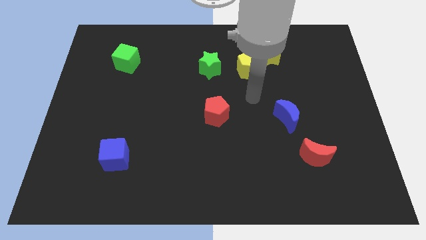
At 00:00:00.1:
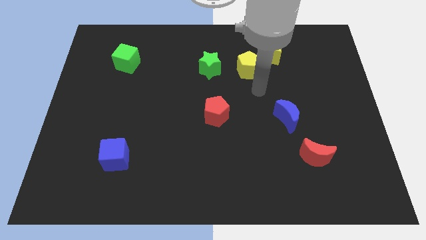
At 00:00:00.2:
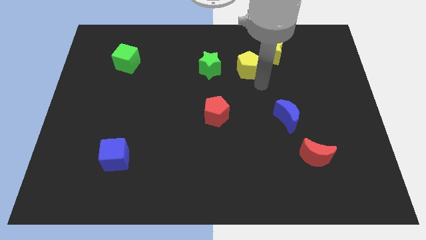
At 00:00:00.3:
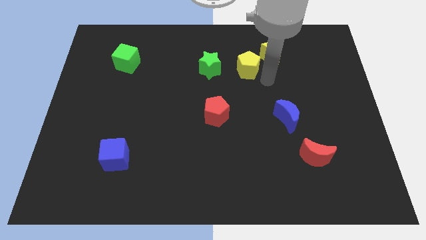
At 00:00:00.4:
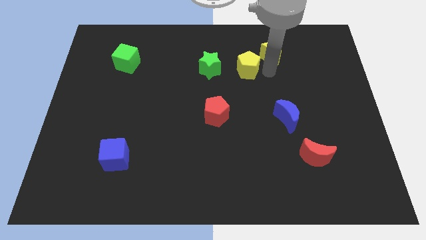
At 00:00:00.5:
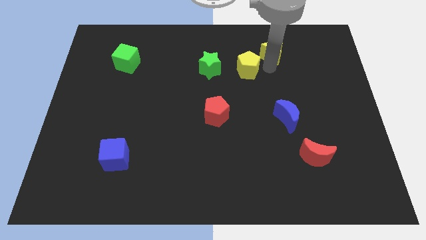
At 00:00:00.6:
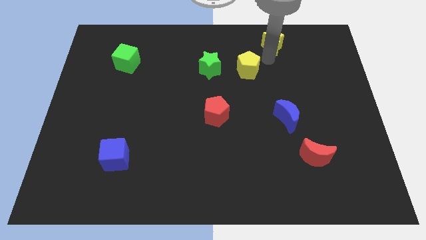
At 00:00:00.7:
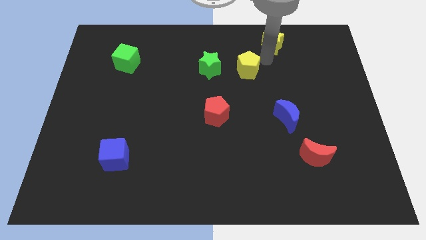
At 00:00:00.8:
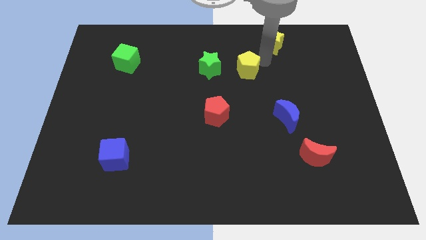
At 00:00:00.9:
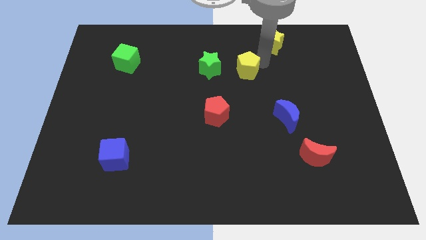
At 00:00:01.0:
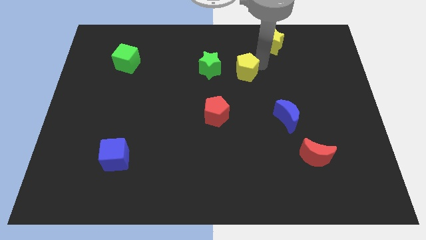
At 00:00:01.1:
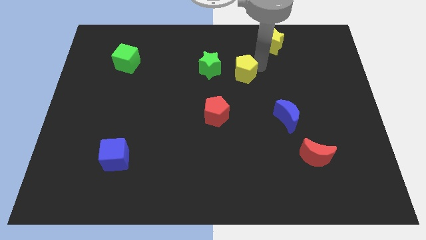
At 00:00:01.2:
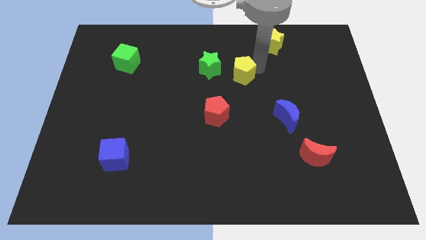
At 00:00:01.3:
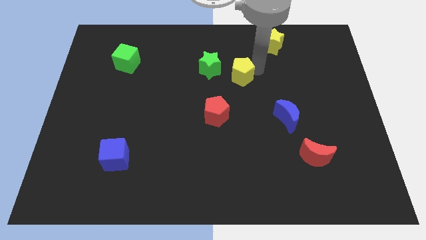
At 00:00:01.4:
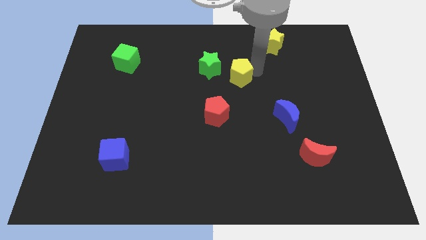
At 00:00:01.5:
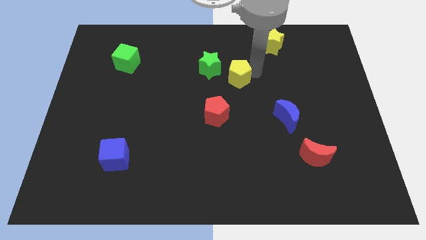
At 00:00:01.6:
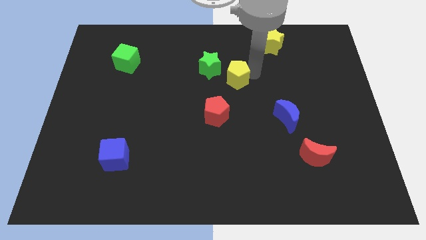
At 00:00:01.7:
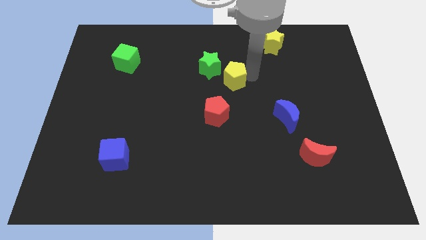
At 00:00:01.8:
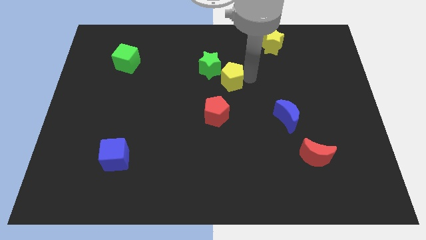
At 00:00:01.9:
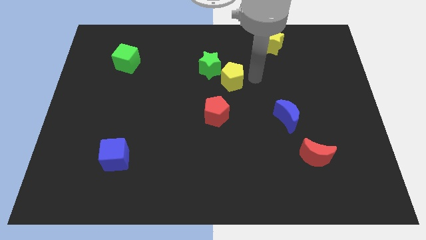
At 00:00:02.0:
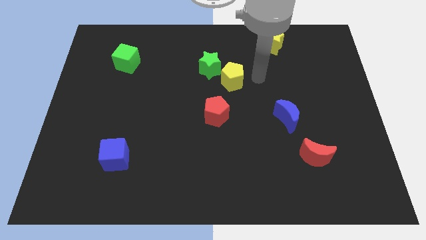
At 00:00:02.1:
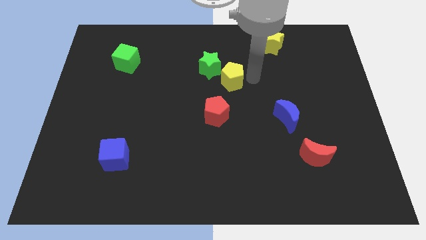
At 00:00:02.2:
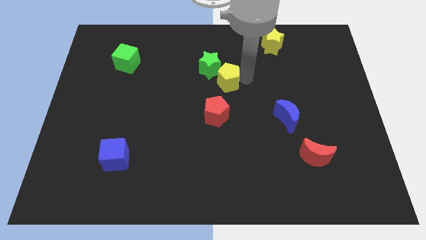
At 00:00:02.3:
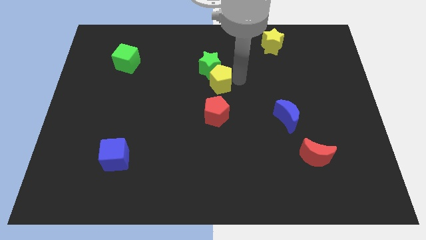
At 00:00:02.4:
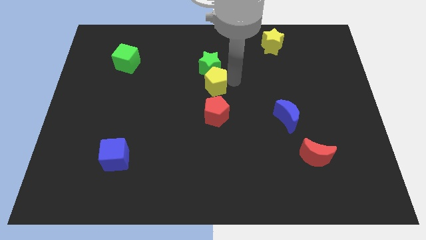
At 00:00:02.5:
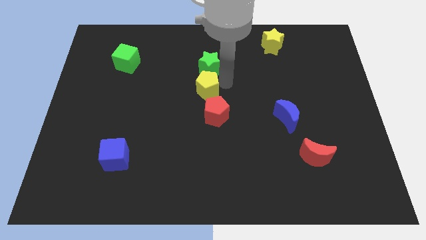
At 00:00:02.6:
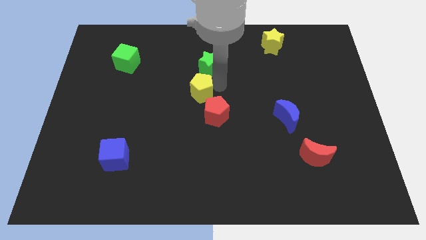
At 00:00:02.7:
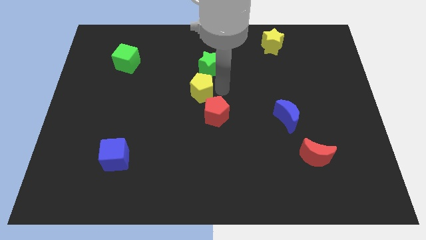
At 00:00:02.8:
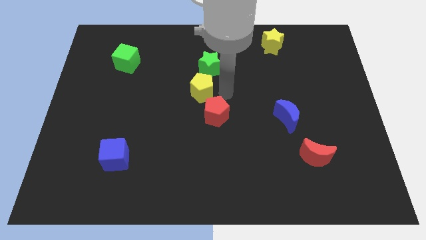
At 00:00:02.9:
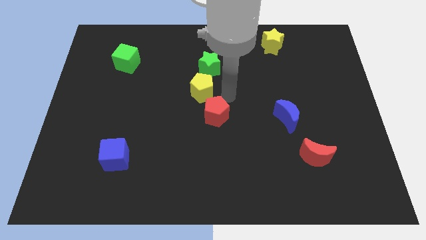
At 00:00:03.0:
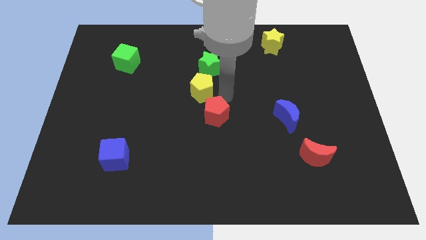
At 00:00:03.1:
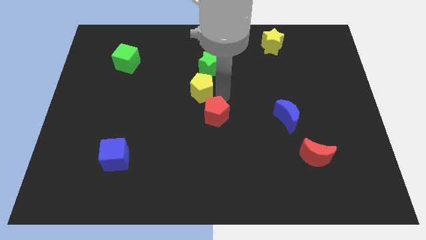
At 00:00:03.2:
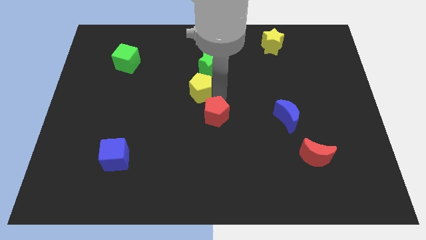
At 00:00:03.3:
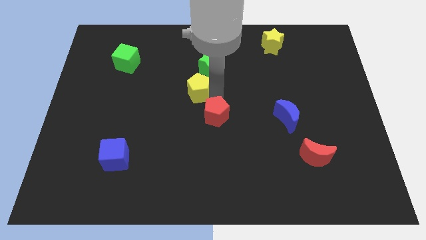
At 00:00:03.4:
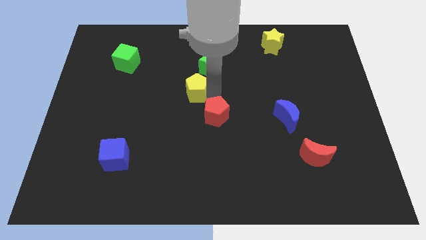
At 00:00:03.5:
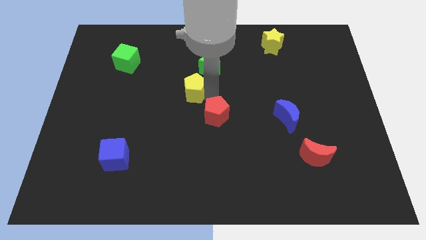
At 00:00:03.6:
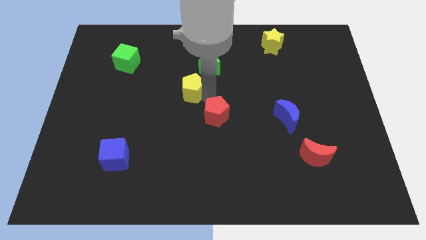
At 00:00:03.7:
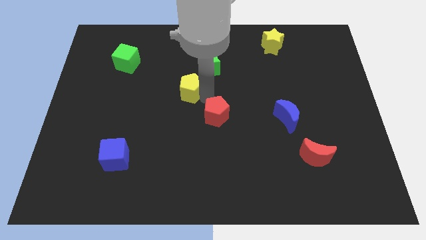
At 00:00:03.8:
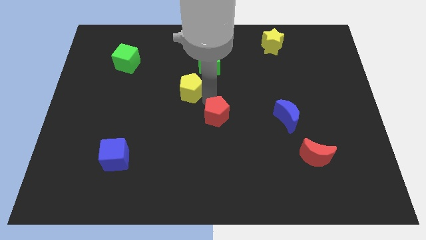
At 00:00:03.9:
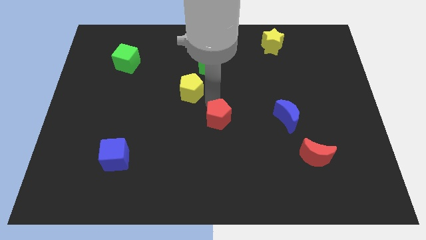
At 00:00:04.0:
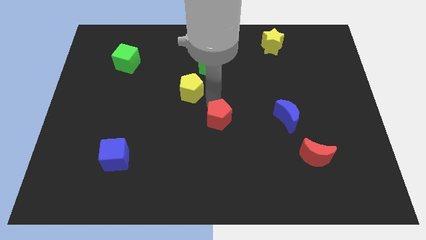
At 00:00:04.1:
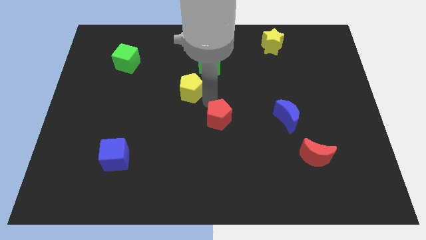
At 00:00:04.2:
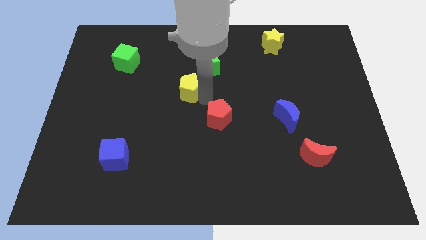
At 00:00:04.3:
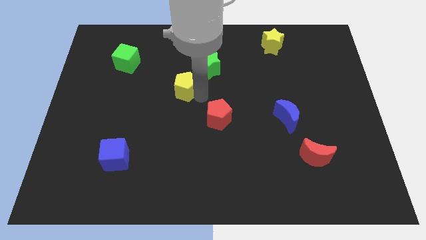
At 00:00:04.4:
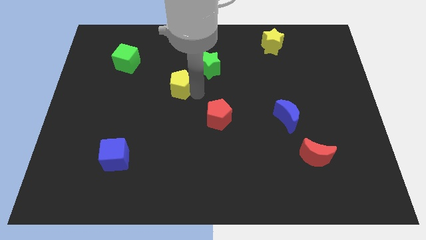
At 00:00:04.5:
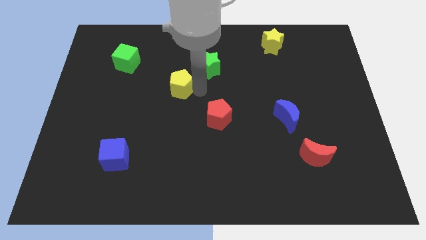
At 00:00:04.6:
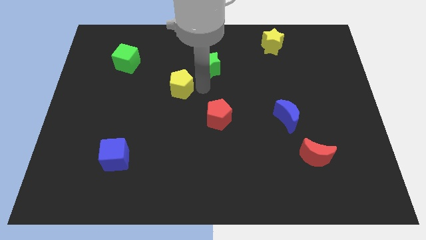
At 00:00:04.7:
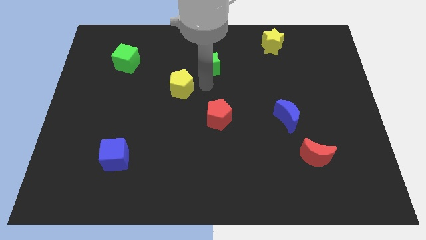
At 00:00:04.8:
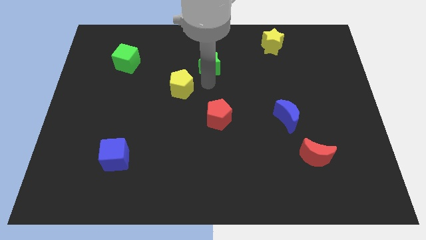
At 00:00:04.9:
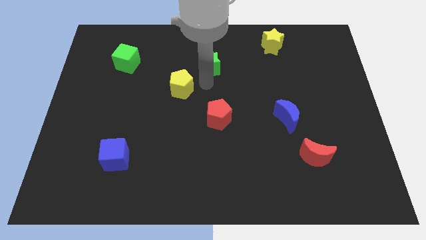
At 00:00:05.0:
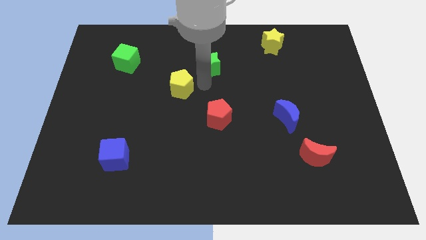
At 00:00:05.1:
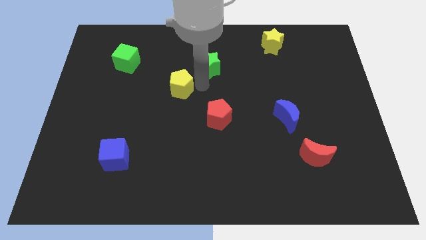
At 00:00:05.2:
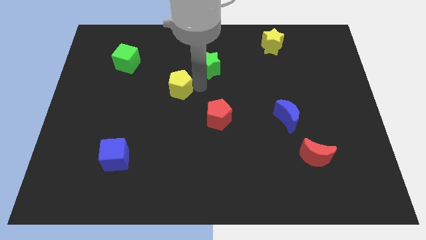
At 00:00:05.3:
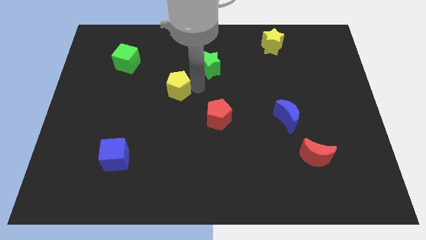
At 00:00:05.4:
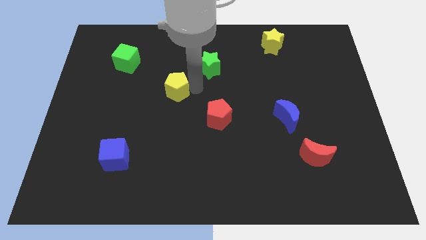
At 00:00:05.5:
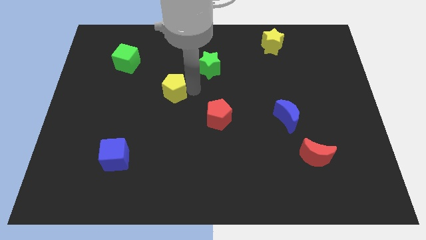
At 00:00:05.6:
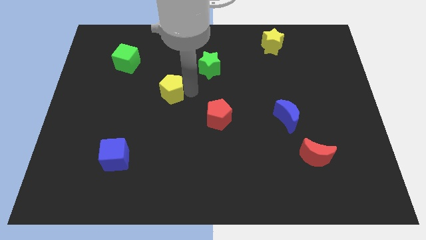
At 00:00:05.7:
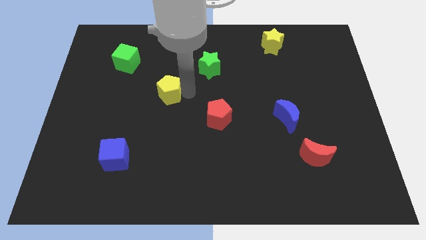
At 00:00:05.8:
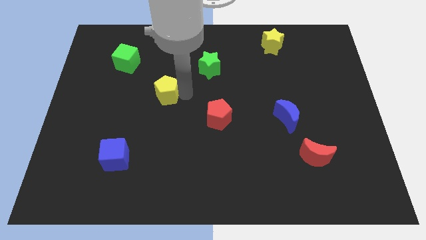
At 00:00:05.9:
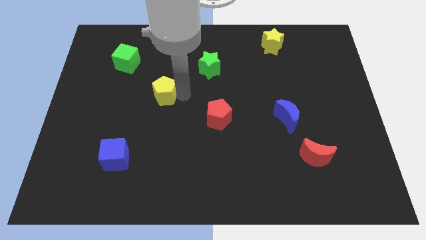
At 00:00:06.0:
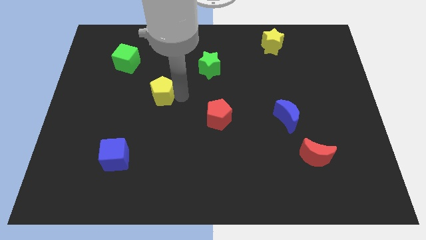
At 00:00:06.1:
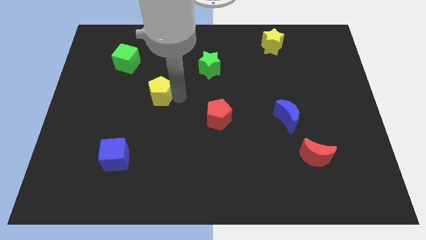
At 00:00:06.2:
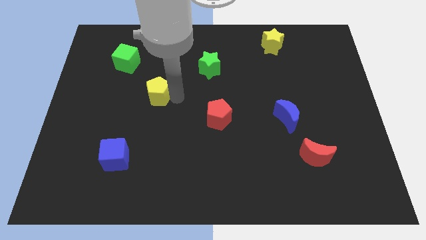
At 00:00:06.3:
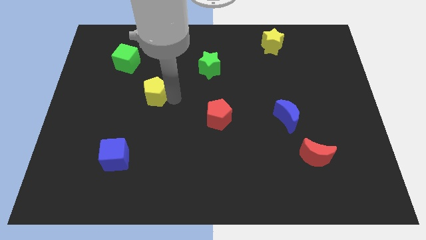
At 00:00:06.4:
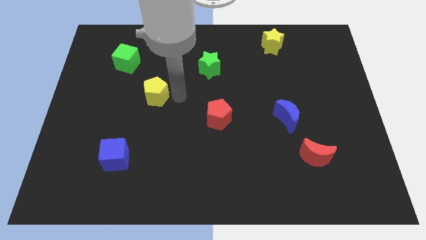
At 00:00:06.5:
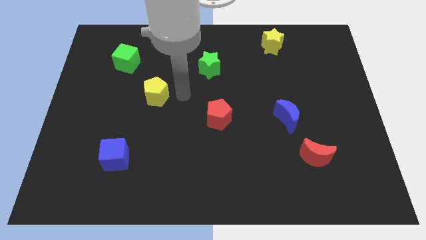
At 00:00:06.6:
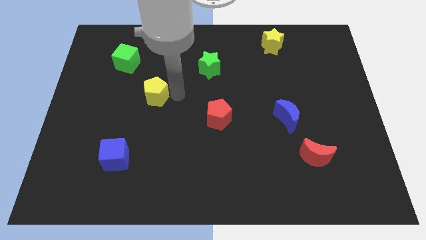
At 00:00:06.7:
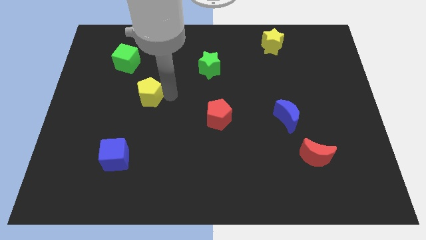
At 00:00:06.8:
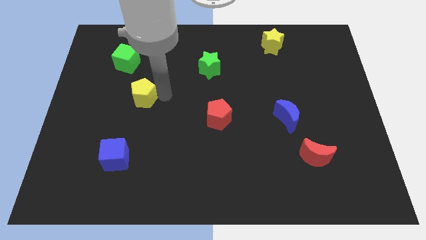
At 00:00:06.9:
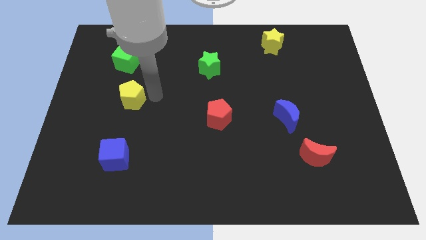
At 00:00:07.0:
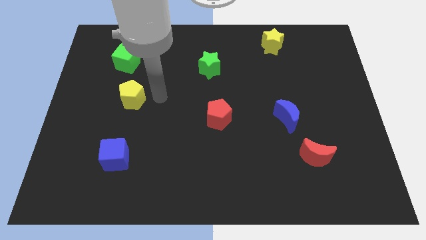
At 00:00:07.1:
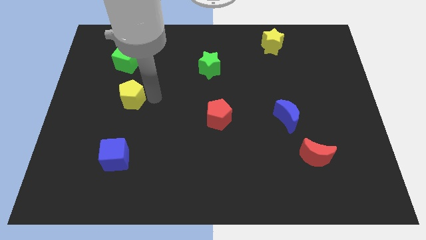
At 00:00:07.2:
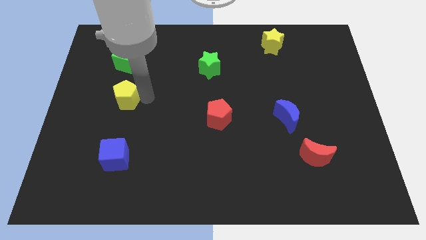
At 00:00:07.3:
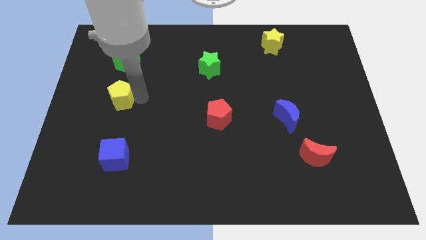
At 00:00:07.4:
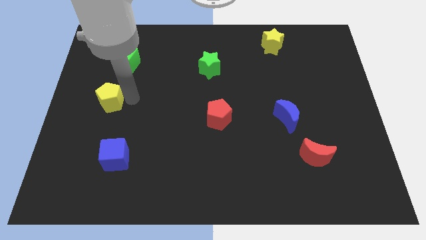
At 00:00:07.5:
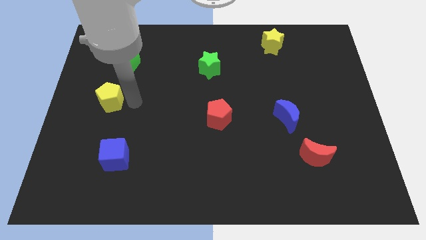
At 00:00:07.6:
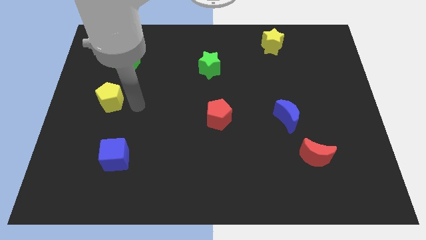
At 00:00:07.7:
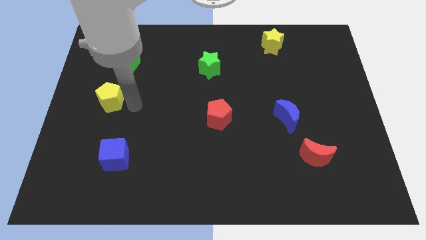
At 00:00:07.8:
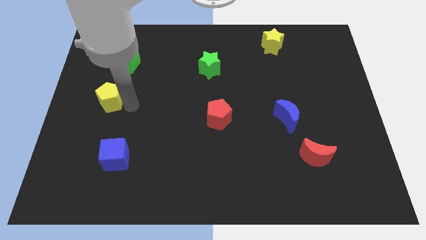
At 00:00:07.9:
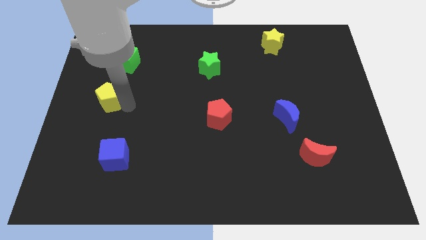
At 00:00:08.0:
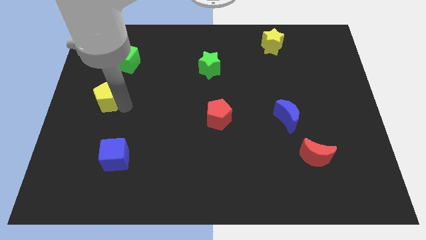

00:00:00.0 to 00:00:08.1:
push the yellow pentagon to the center left
